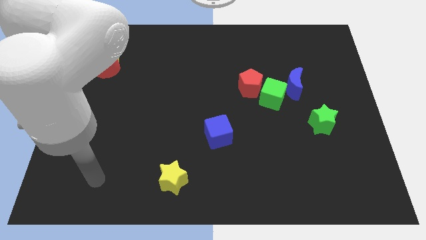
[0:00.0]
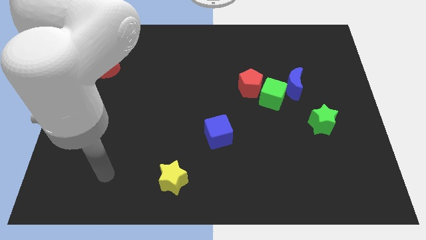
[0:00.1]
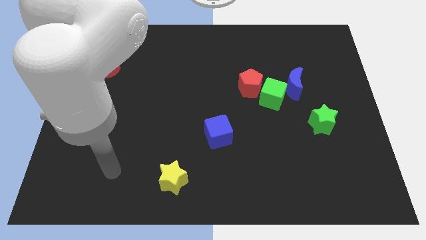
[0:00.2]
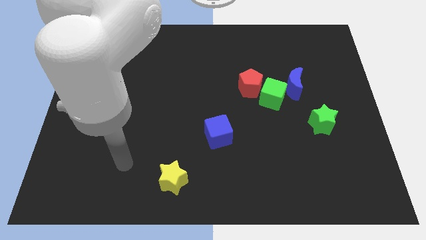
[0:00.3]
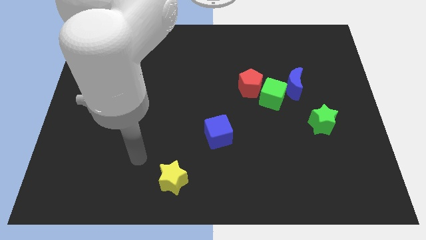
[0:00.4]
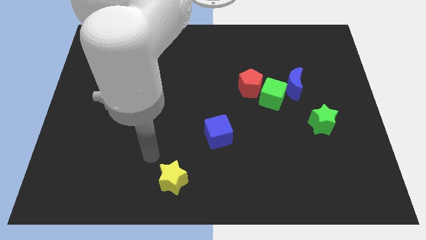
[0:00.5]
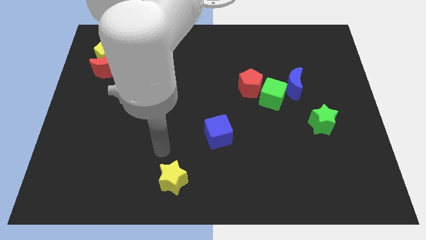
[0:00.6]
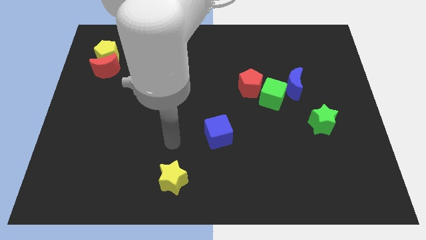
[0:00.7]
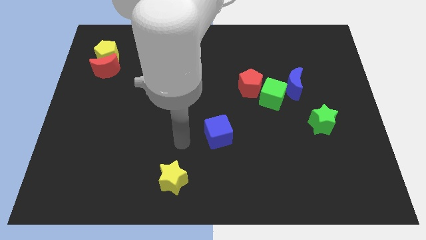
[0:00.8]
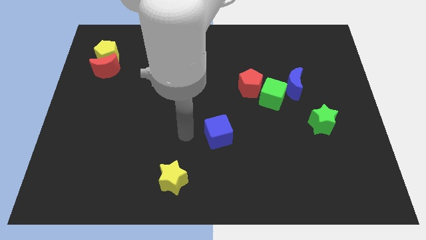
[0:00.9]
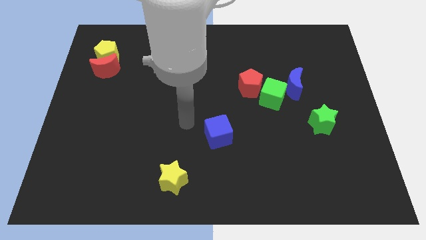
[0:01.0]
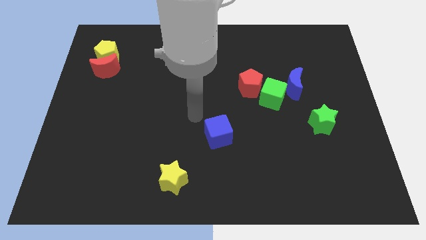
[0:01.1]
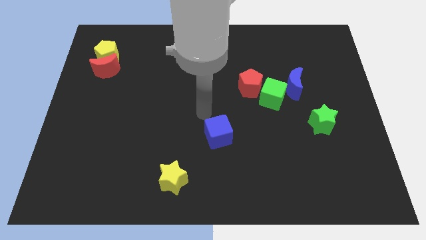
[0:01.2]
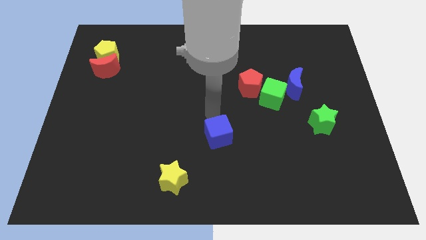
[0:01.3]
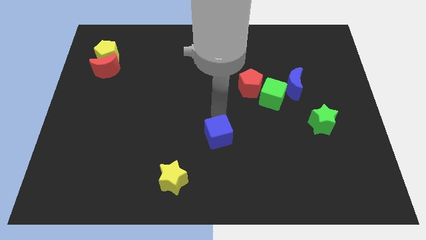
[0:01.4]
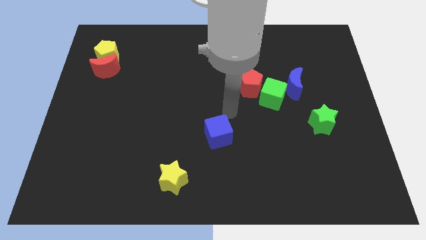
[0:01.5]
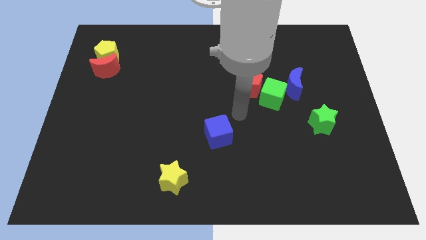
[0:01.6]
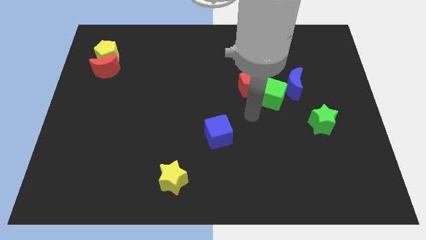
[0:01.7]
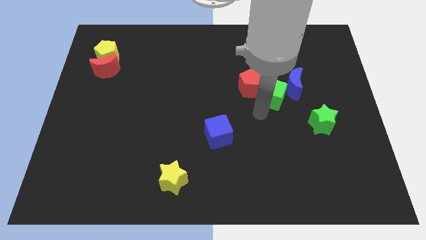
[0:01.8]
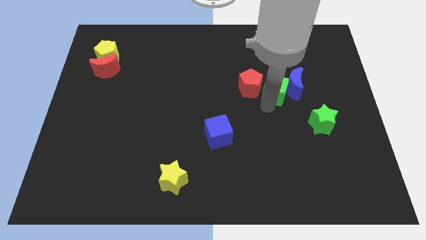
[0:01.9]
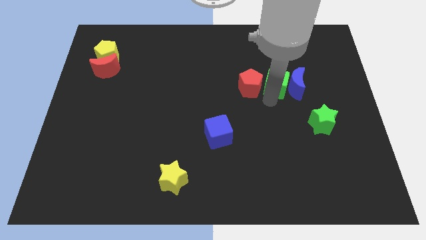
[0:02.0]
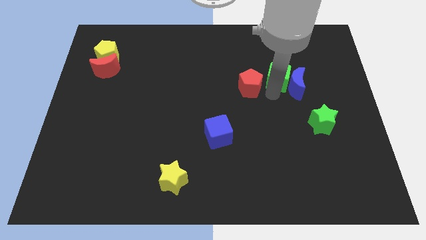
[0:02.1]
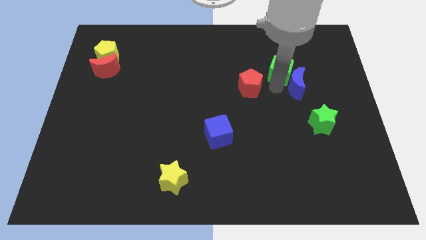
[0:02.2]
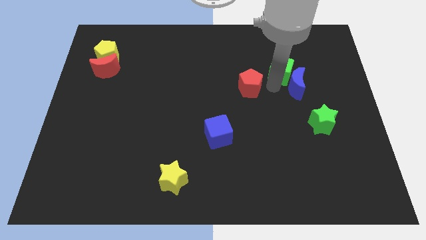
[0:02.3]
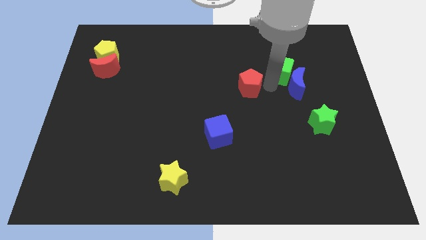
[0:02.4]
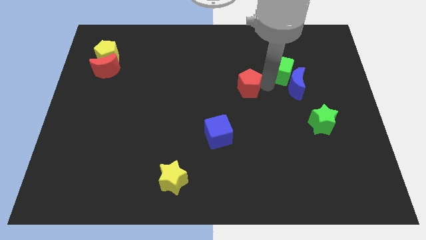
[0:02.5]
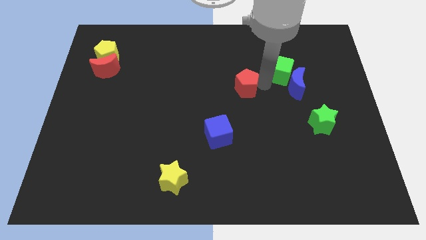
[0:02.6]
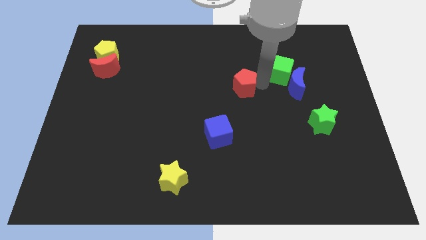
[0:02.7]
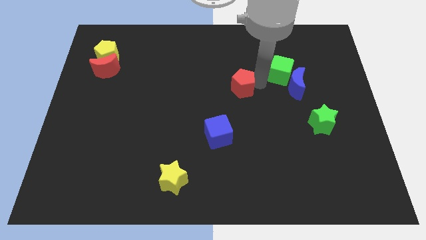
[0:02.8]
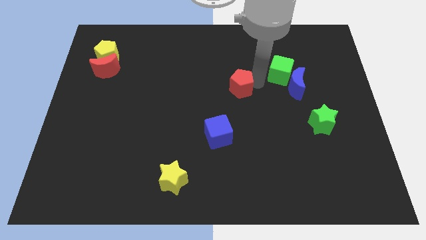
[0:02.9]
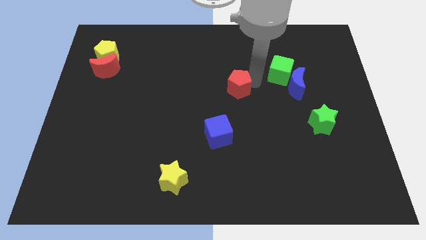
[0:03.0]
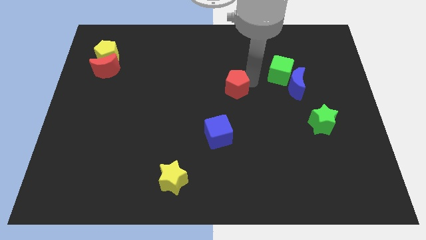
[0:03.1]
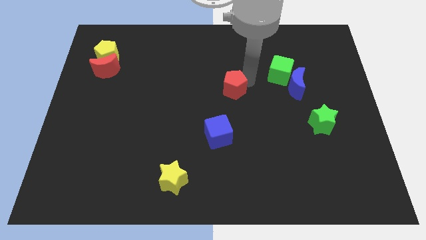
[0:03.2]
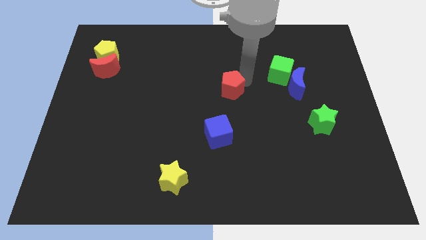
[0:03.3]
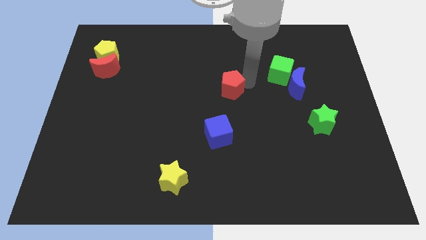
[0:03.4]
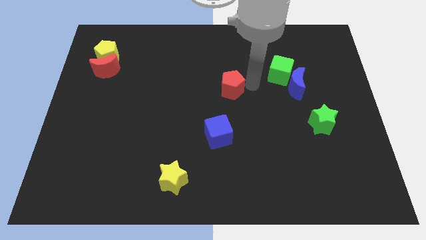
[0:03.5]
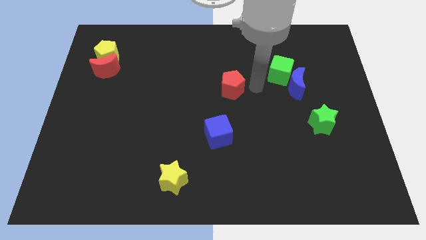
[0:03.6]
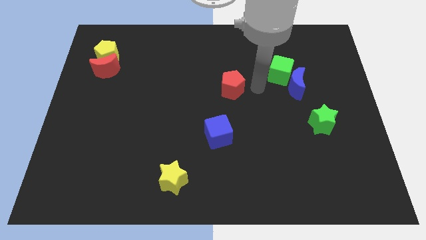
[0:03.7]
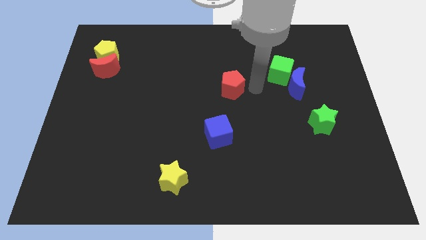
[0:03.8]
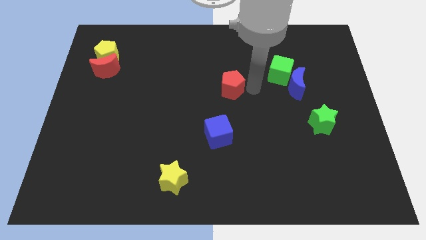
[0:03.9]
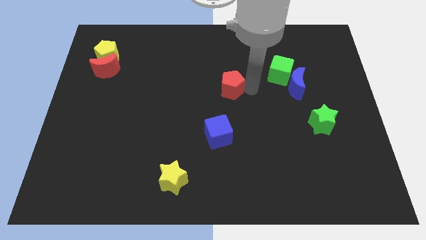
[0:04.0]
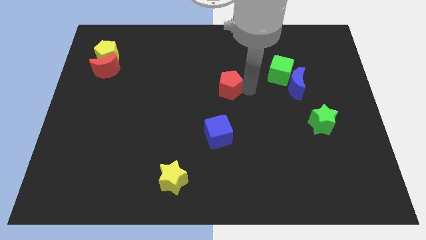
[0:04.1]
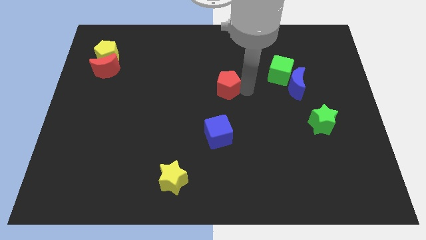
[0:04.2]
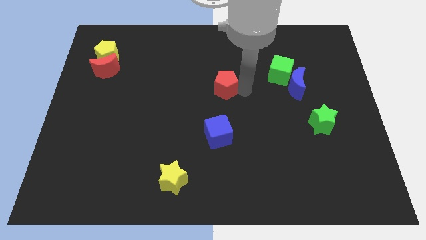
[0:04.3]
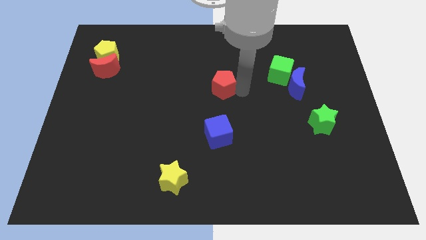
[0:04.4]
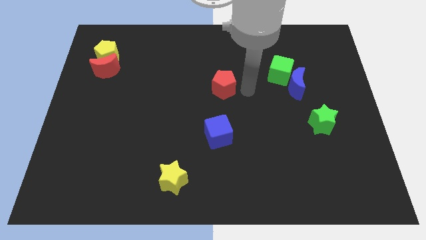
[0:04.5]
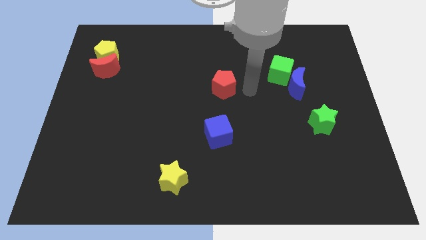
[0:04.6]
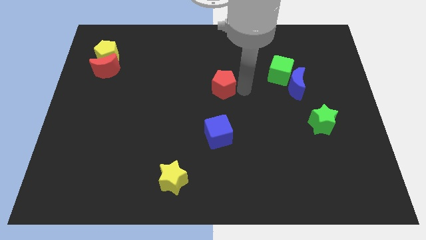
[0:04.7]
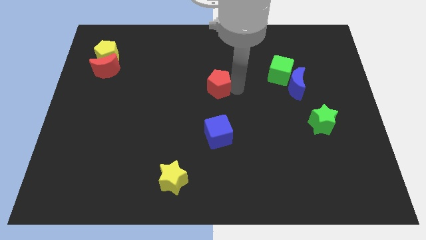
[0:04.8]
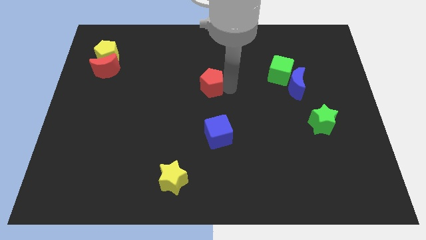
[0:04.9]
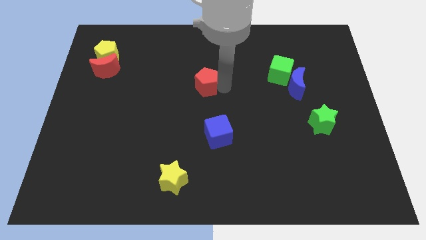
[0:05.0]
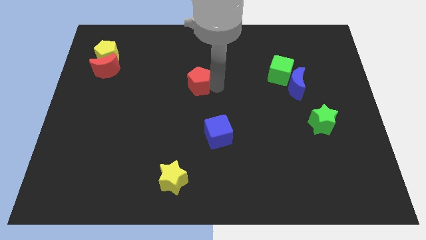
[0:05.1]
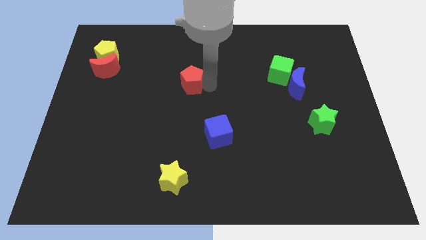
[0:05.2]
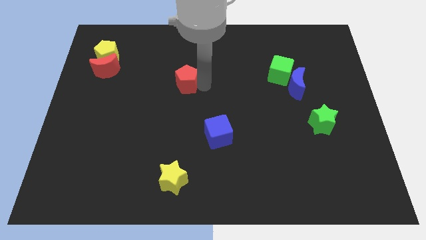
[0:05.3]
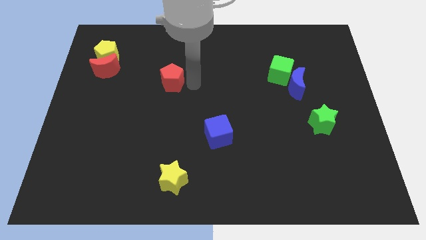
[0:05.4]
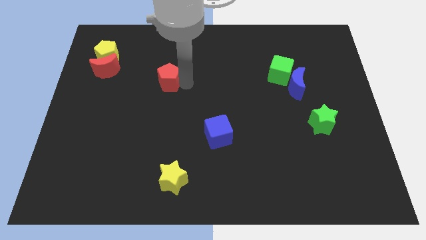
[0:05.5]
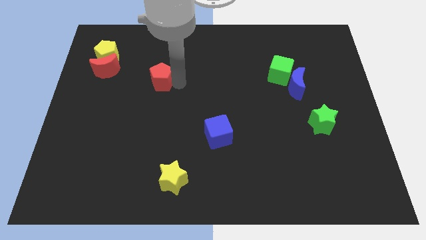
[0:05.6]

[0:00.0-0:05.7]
put the red pentagon to the right side of the red moon

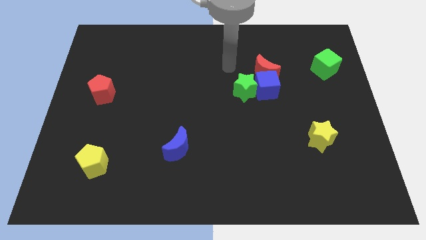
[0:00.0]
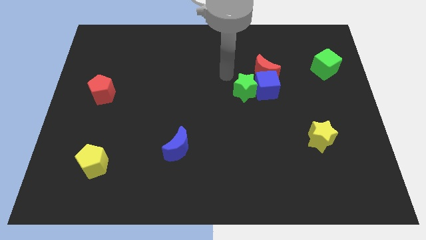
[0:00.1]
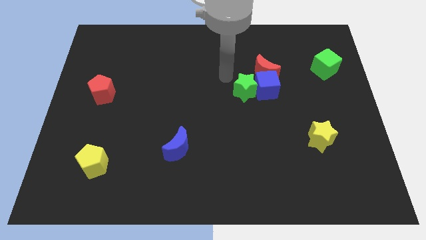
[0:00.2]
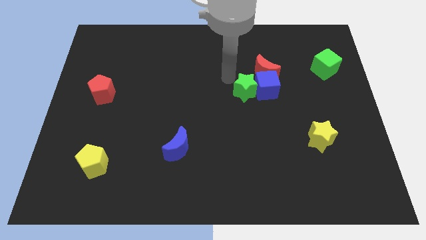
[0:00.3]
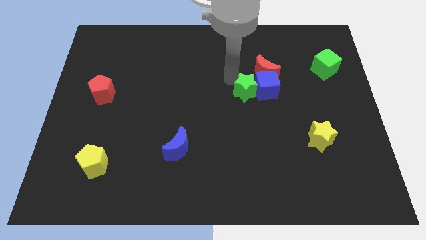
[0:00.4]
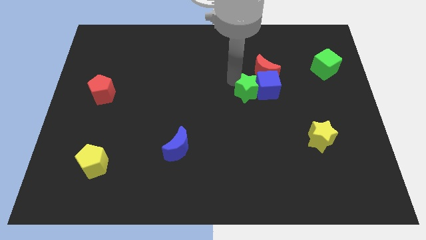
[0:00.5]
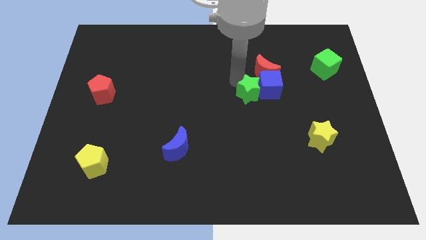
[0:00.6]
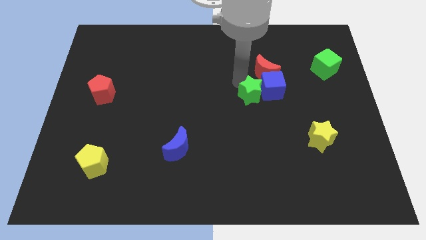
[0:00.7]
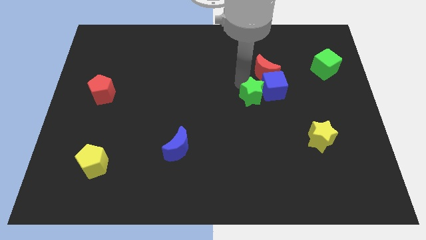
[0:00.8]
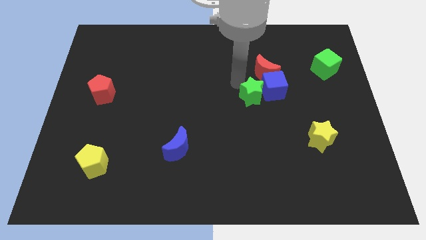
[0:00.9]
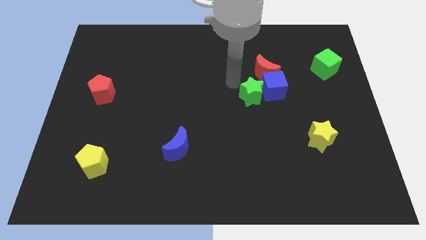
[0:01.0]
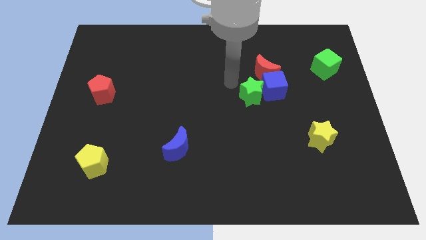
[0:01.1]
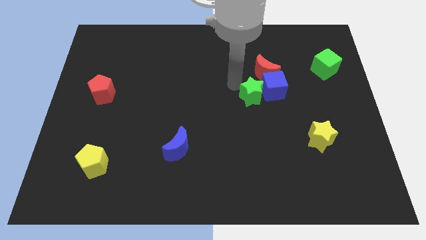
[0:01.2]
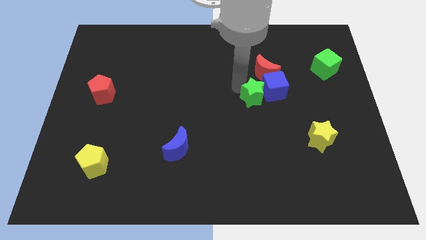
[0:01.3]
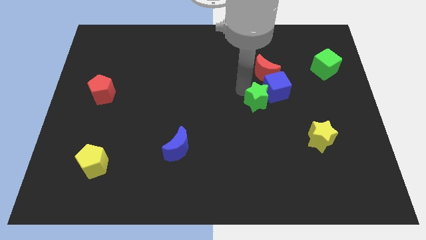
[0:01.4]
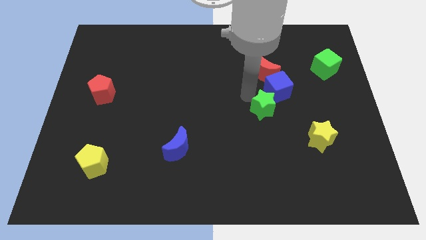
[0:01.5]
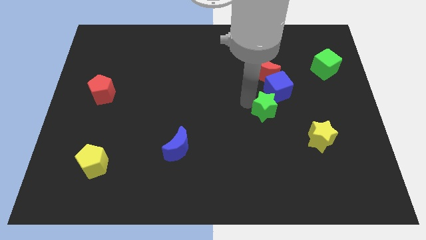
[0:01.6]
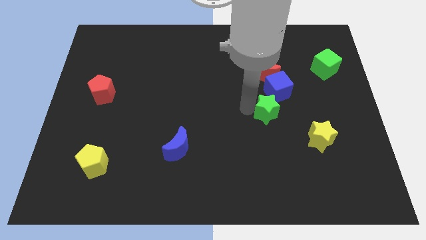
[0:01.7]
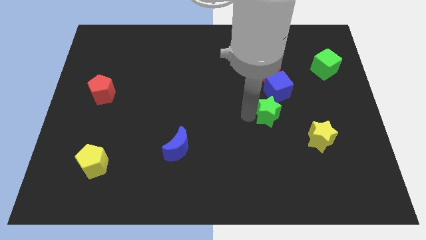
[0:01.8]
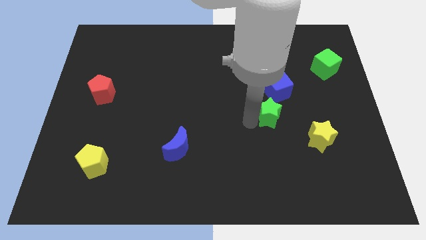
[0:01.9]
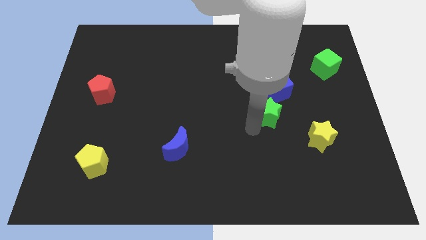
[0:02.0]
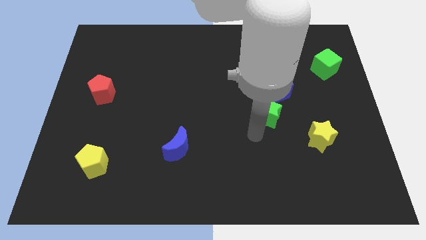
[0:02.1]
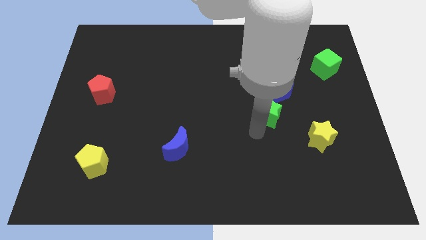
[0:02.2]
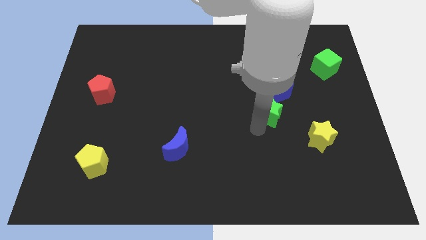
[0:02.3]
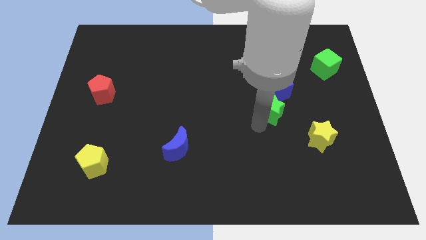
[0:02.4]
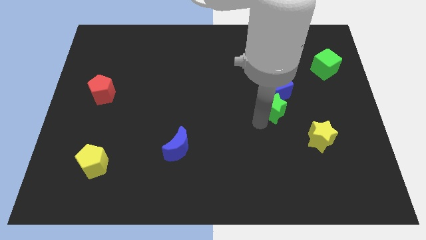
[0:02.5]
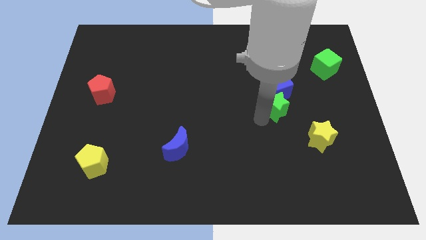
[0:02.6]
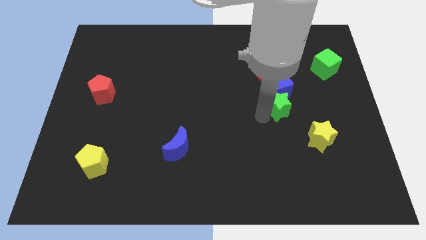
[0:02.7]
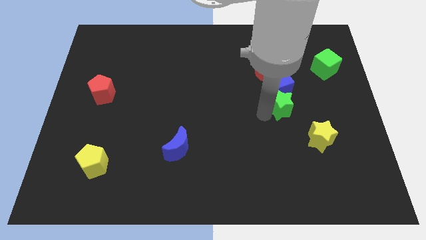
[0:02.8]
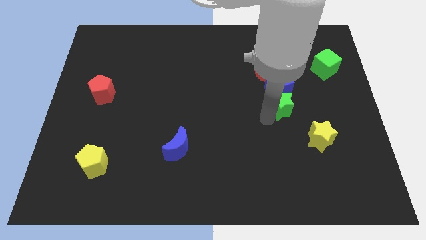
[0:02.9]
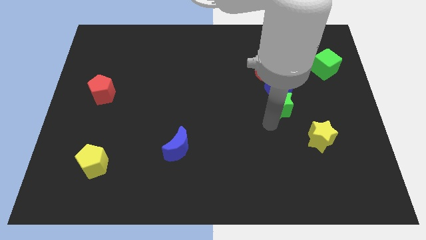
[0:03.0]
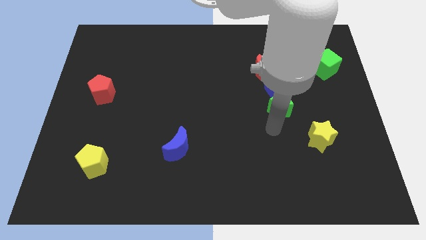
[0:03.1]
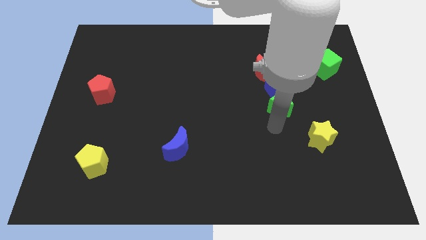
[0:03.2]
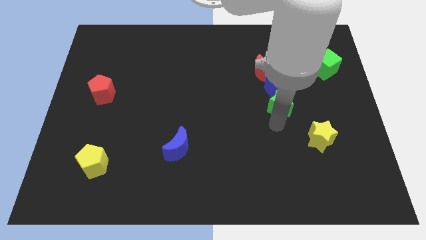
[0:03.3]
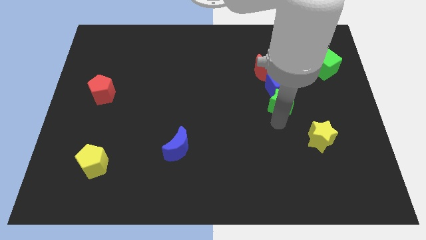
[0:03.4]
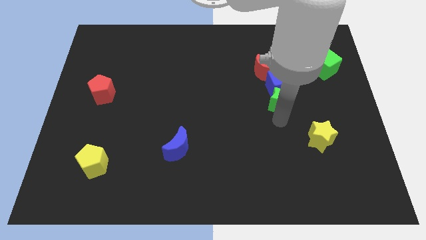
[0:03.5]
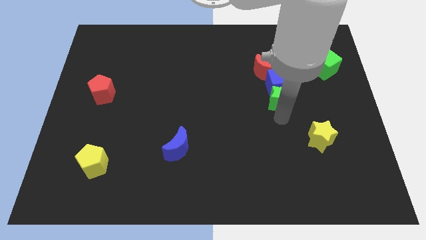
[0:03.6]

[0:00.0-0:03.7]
slide the green star to the bottom right side of the red moon
